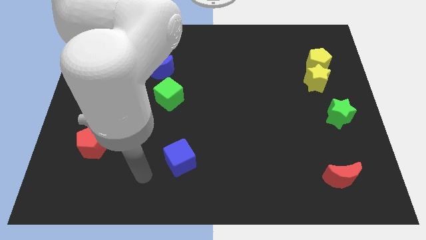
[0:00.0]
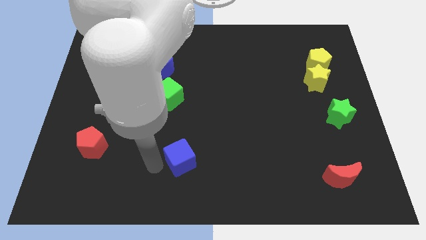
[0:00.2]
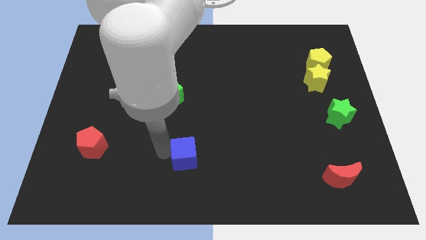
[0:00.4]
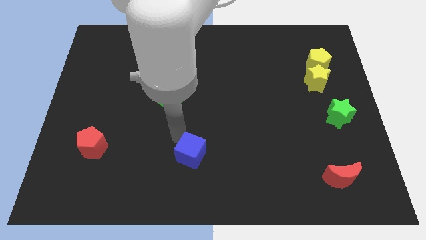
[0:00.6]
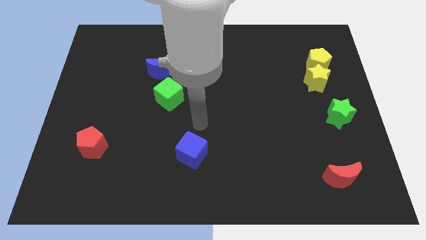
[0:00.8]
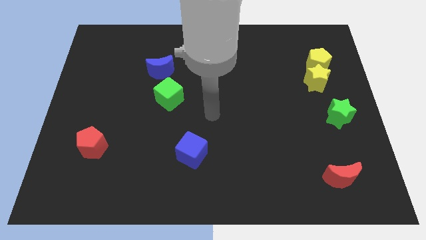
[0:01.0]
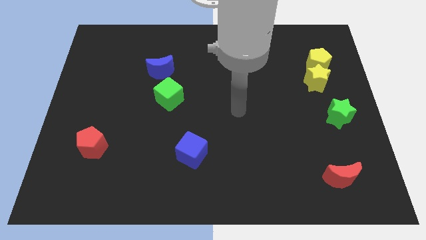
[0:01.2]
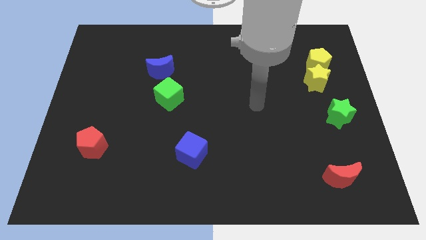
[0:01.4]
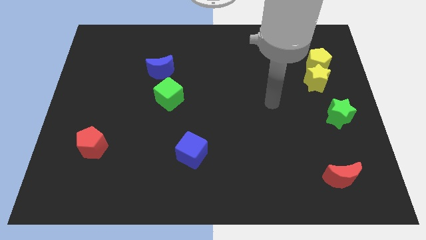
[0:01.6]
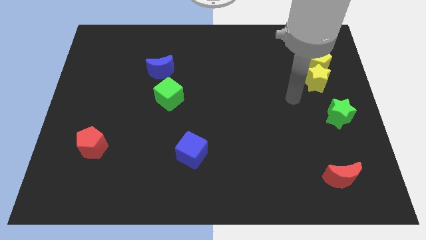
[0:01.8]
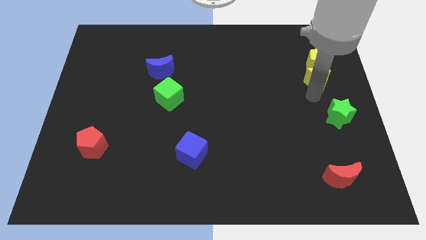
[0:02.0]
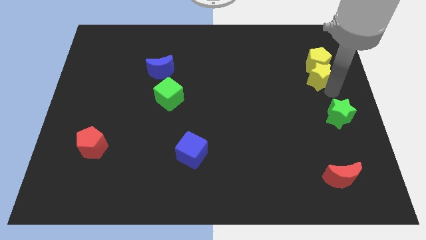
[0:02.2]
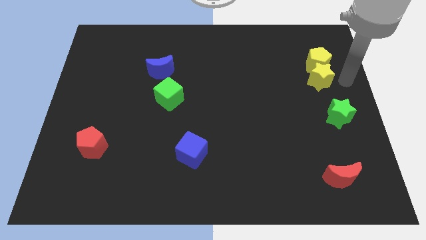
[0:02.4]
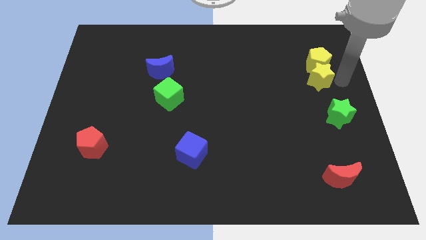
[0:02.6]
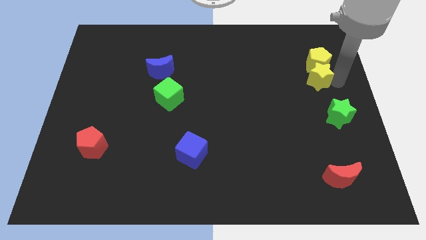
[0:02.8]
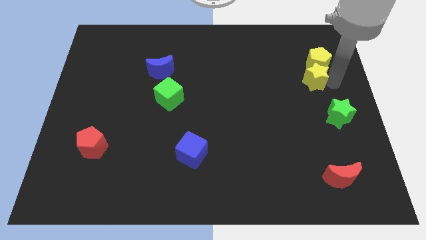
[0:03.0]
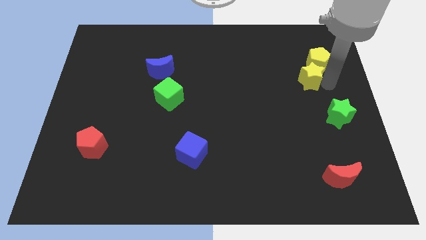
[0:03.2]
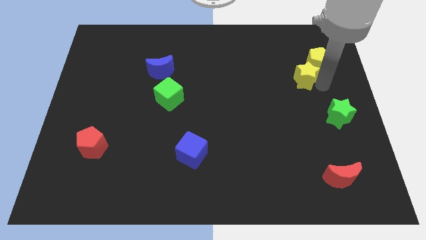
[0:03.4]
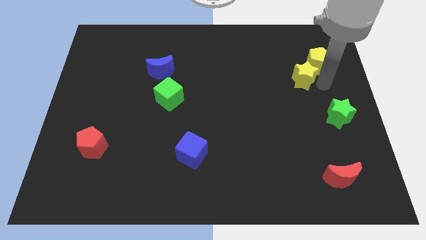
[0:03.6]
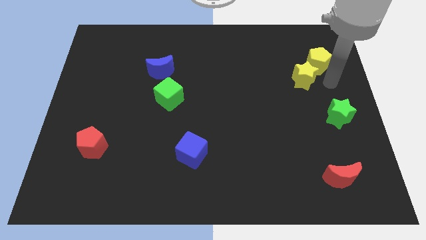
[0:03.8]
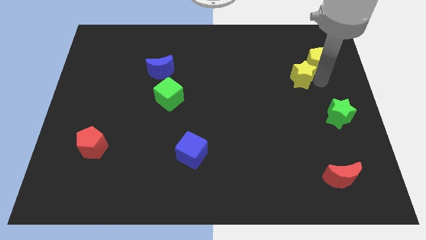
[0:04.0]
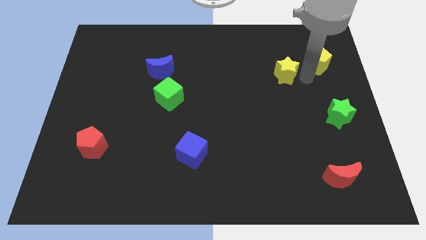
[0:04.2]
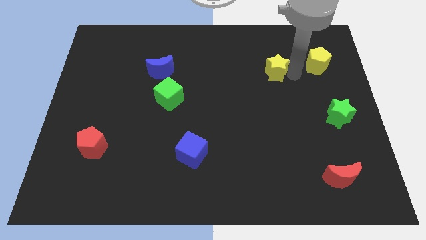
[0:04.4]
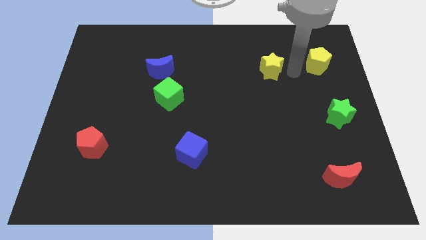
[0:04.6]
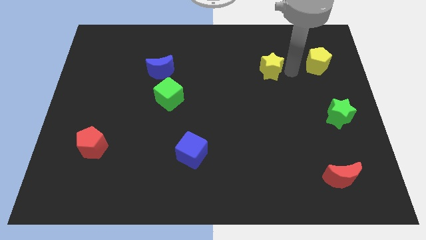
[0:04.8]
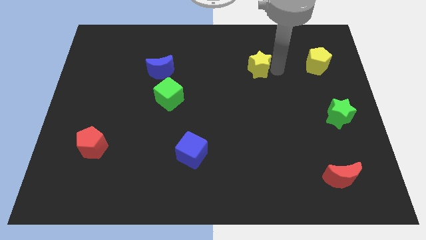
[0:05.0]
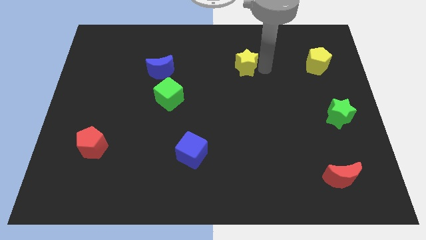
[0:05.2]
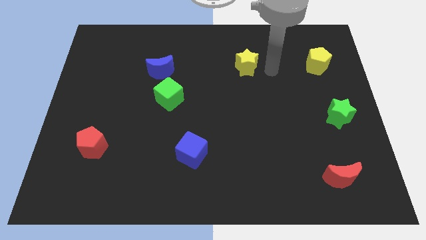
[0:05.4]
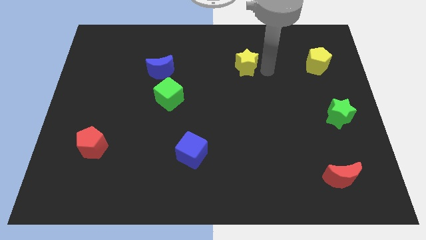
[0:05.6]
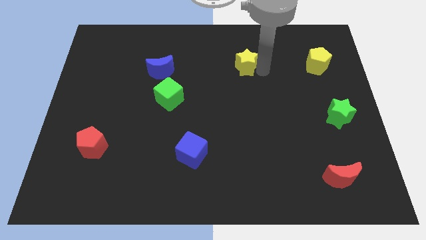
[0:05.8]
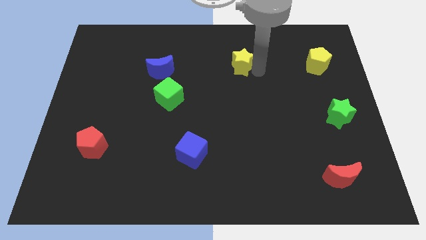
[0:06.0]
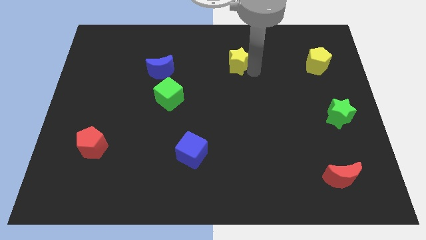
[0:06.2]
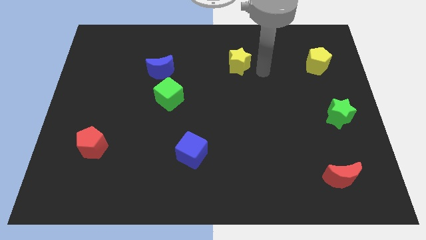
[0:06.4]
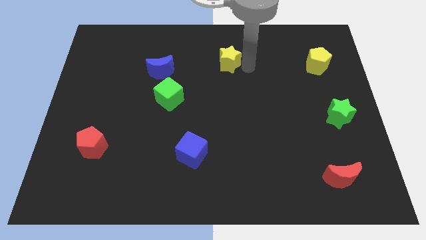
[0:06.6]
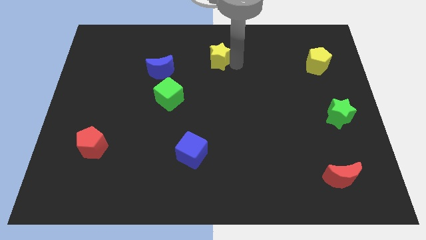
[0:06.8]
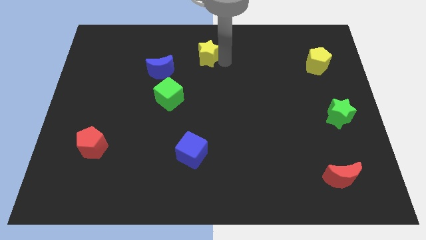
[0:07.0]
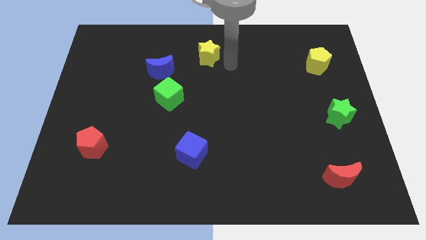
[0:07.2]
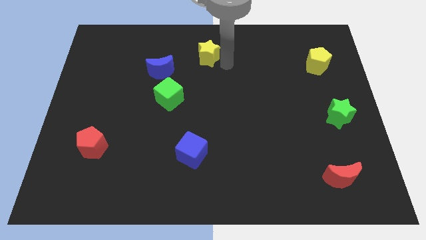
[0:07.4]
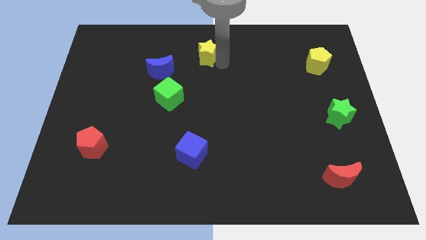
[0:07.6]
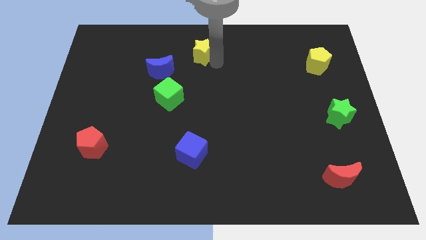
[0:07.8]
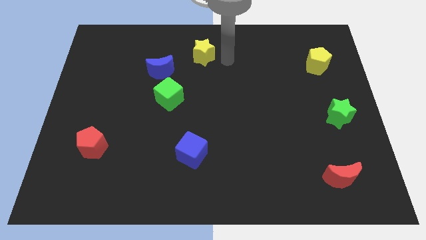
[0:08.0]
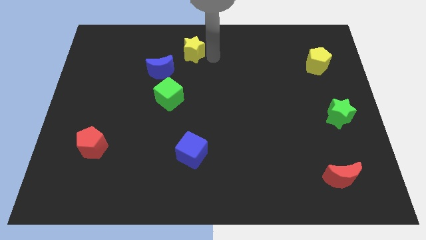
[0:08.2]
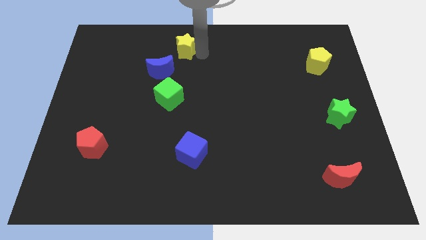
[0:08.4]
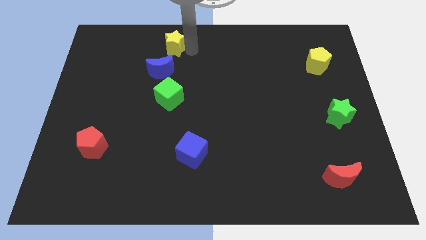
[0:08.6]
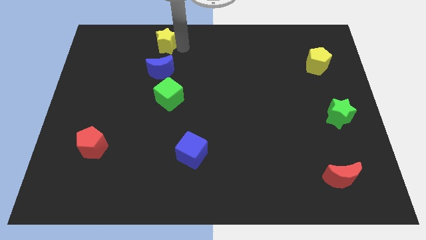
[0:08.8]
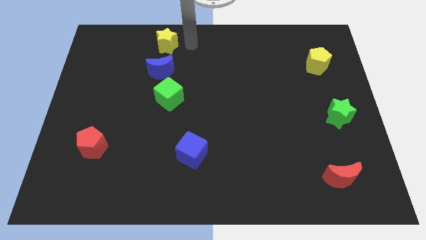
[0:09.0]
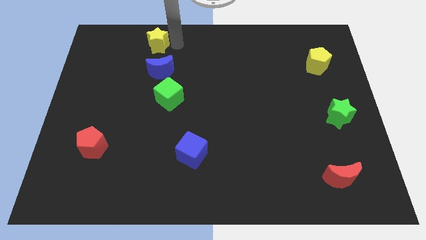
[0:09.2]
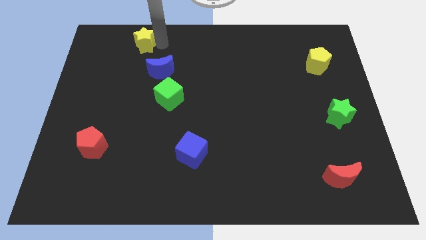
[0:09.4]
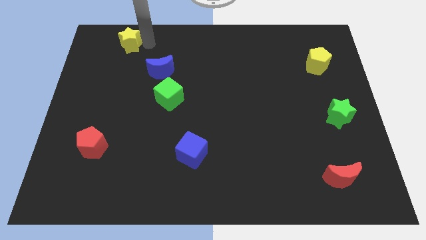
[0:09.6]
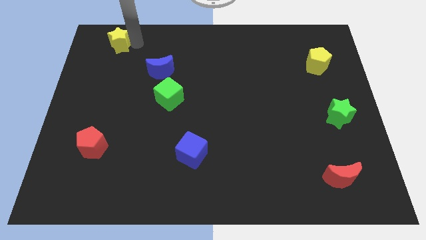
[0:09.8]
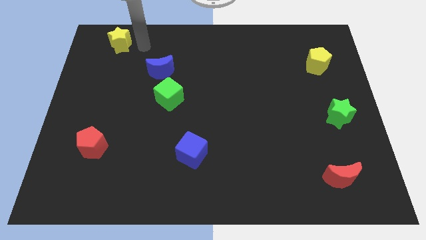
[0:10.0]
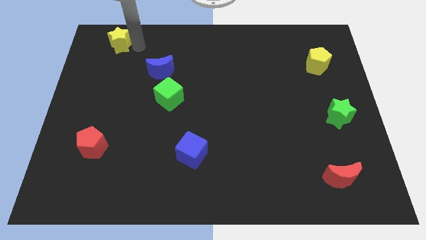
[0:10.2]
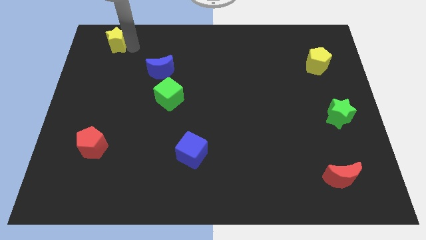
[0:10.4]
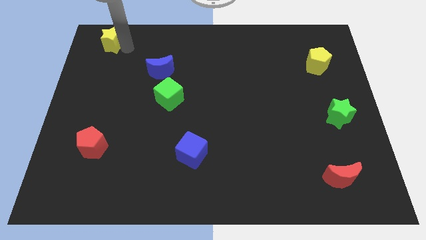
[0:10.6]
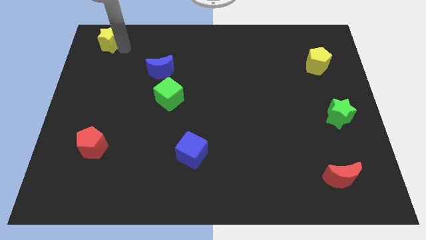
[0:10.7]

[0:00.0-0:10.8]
move the yellow star to the top left of the board
